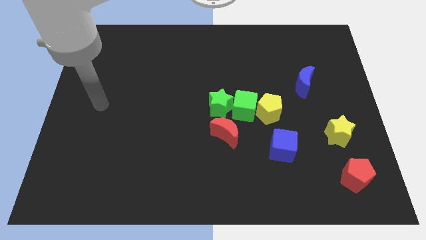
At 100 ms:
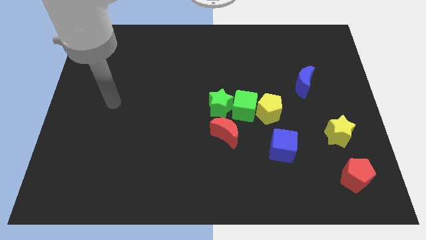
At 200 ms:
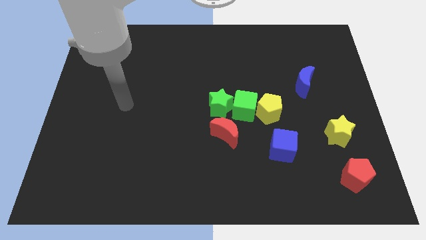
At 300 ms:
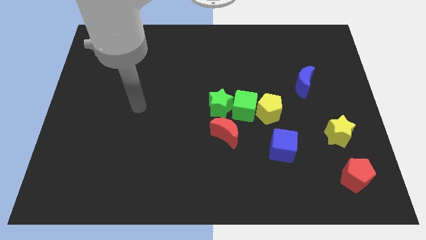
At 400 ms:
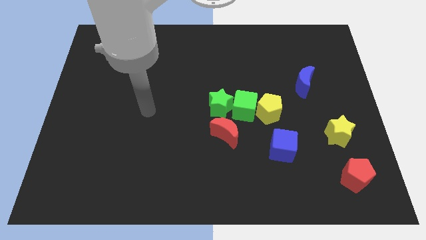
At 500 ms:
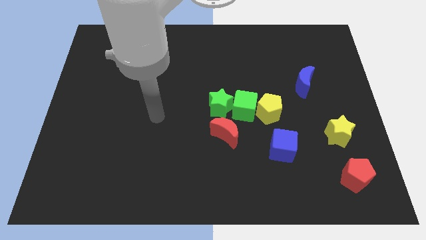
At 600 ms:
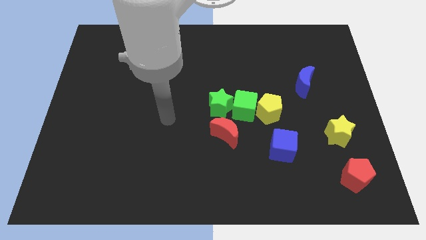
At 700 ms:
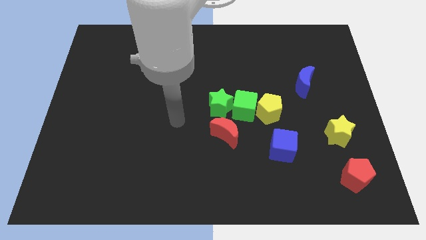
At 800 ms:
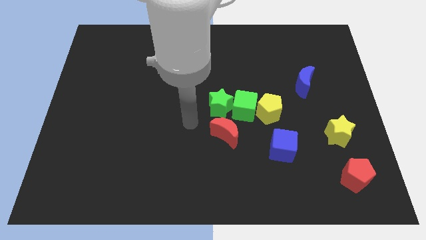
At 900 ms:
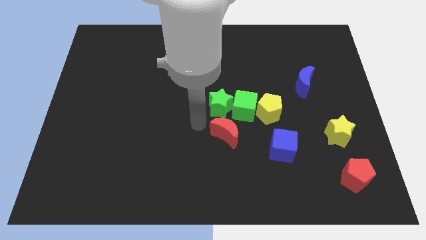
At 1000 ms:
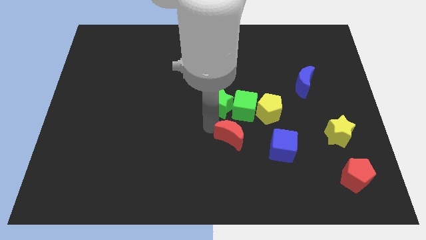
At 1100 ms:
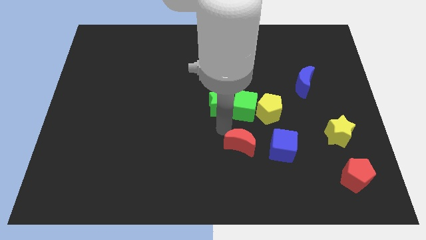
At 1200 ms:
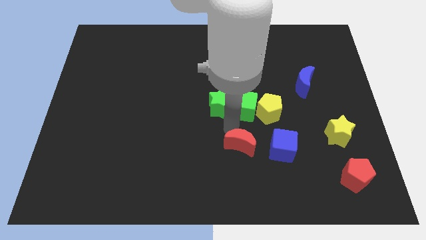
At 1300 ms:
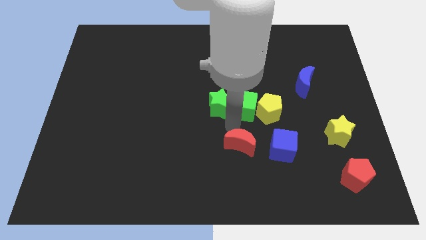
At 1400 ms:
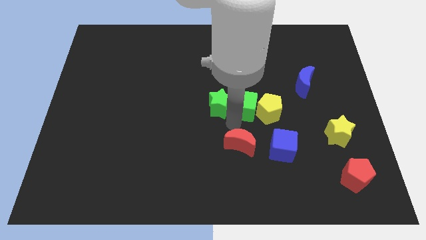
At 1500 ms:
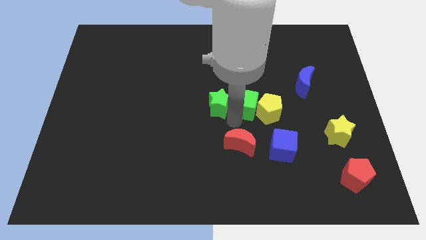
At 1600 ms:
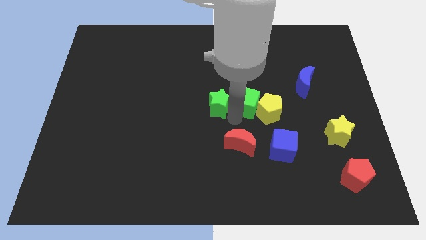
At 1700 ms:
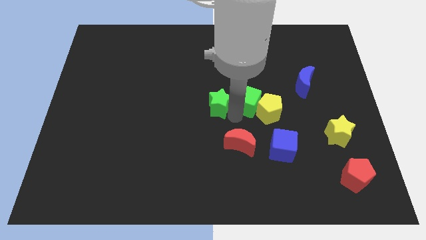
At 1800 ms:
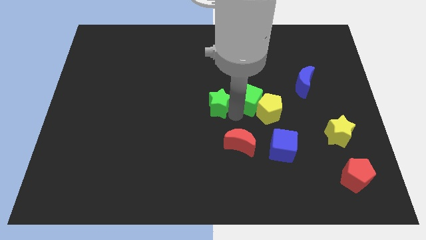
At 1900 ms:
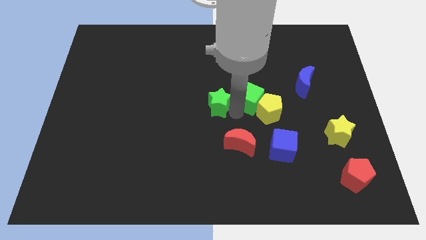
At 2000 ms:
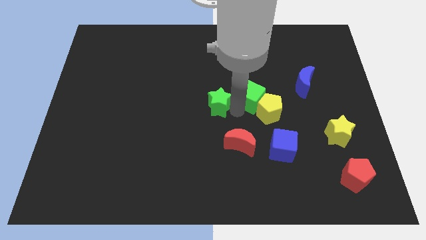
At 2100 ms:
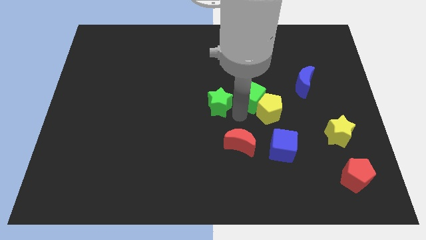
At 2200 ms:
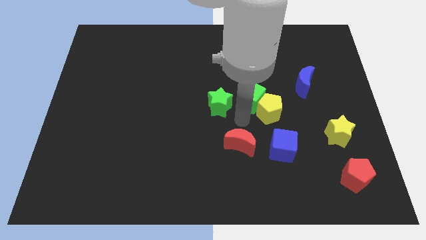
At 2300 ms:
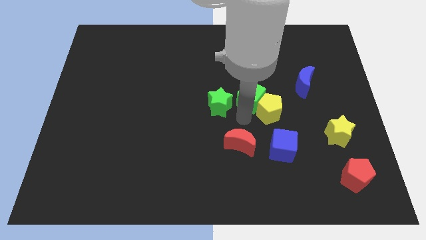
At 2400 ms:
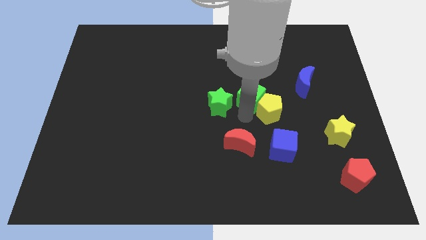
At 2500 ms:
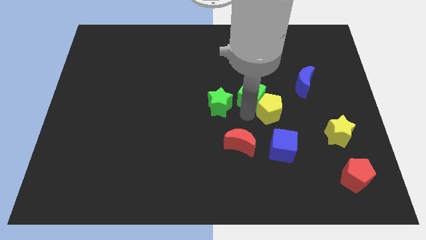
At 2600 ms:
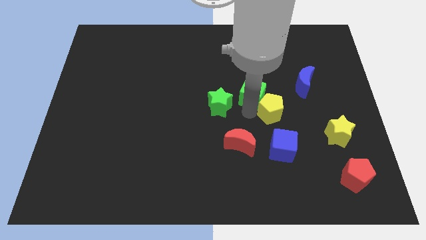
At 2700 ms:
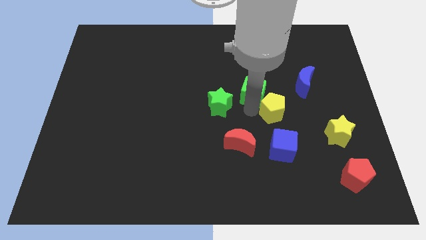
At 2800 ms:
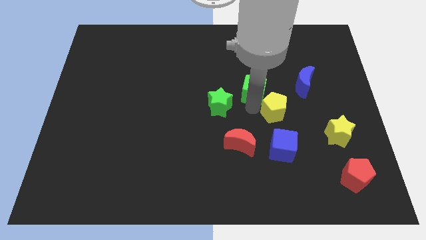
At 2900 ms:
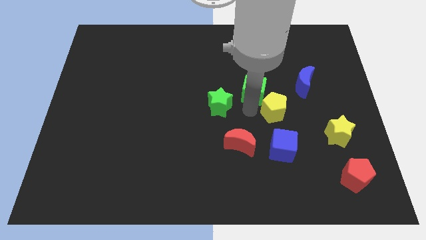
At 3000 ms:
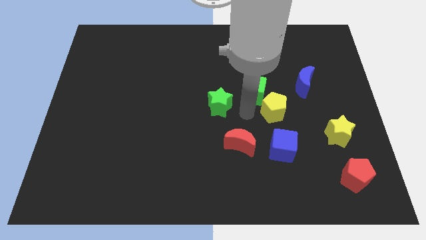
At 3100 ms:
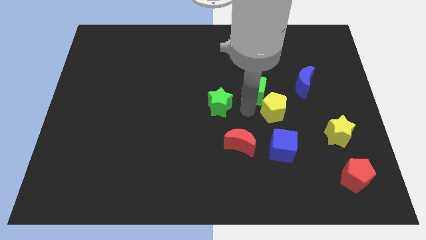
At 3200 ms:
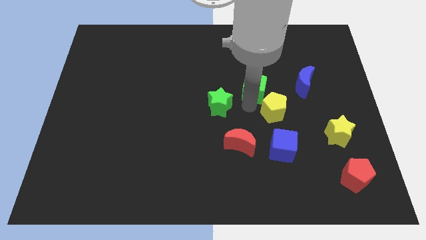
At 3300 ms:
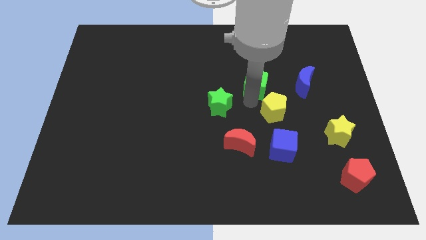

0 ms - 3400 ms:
move the green cube away from the group of blocks

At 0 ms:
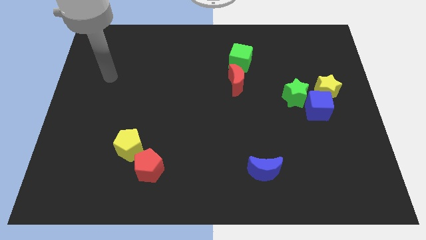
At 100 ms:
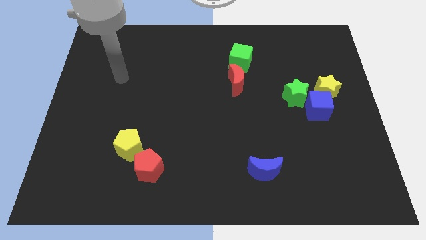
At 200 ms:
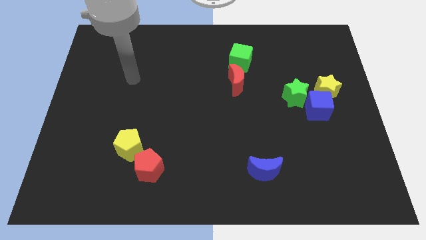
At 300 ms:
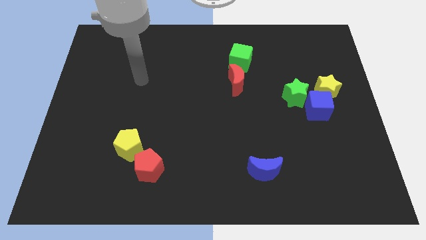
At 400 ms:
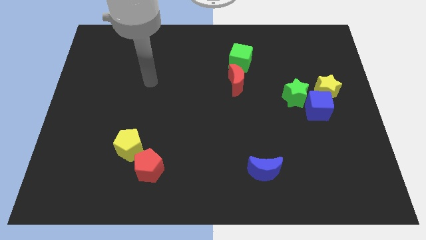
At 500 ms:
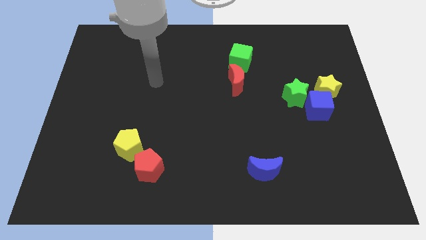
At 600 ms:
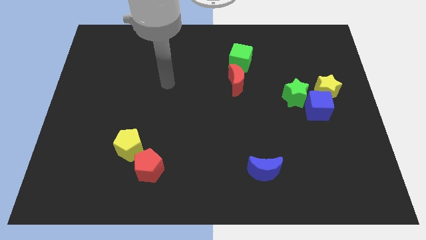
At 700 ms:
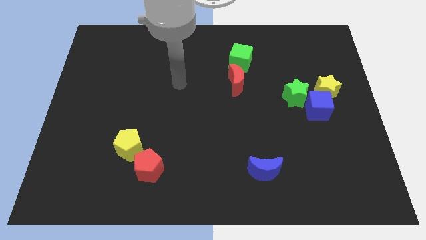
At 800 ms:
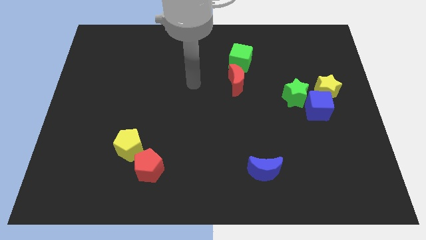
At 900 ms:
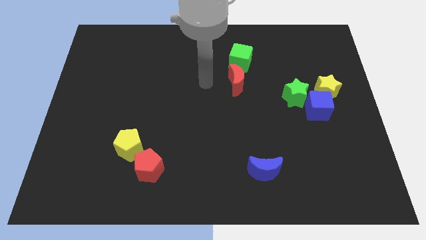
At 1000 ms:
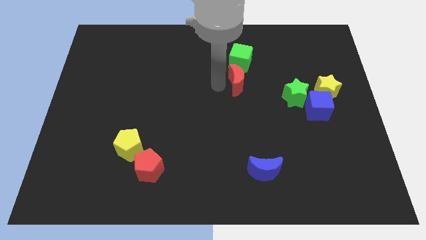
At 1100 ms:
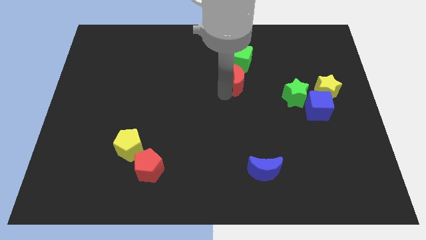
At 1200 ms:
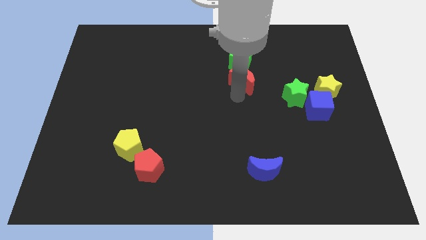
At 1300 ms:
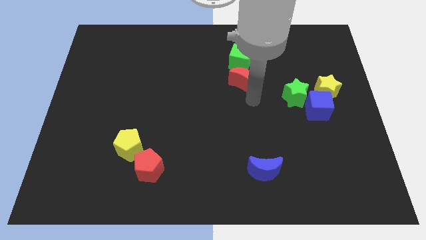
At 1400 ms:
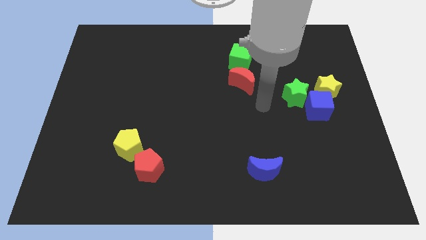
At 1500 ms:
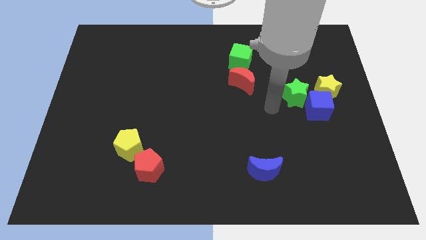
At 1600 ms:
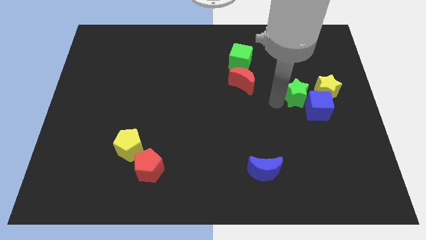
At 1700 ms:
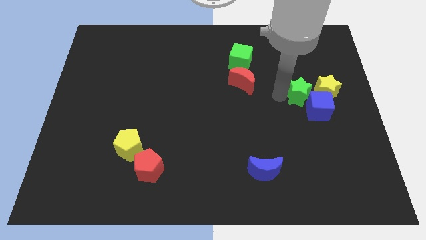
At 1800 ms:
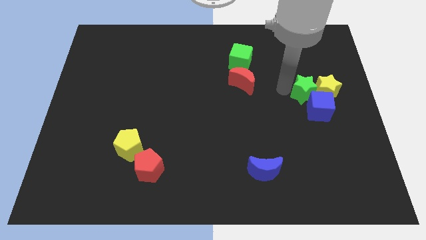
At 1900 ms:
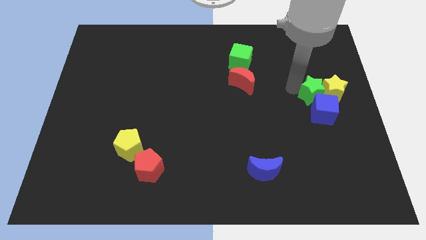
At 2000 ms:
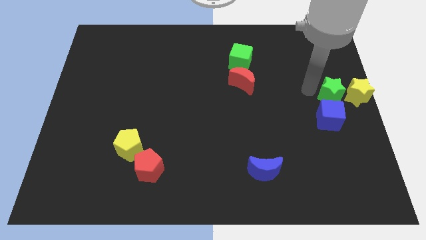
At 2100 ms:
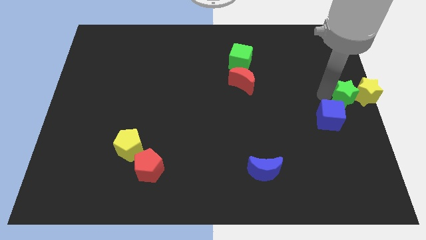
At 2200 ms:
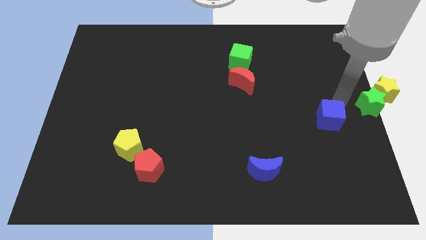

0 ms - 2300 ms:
pull the blue cube apart from the yellow star and green star

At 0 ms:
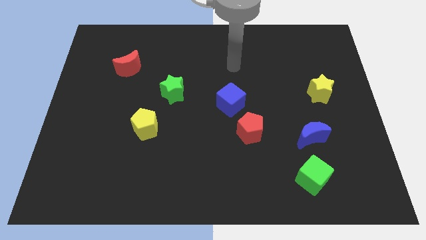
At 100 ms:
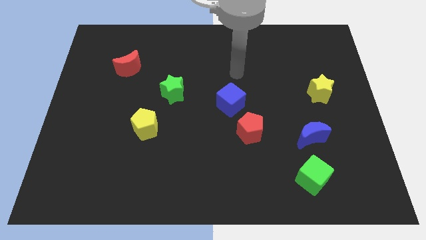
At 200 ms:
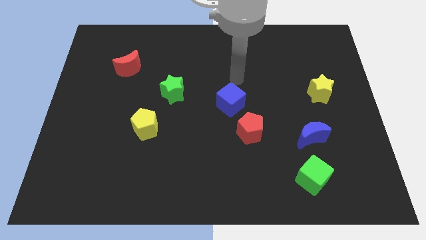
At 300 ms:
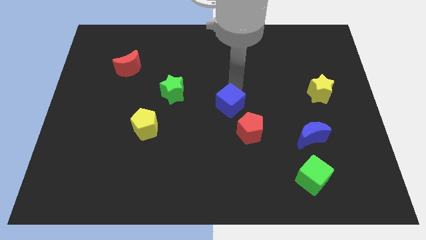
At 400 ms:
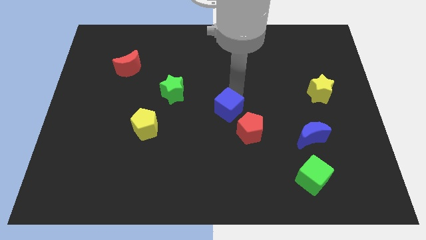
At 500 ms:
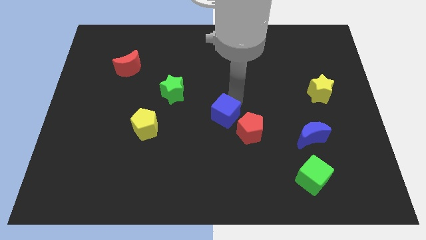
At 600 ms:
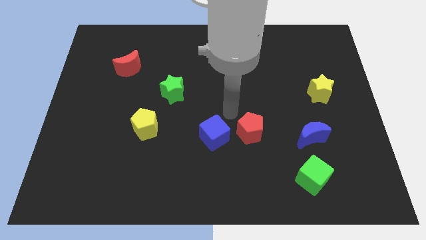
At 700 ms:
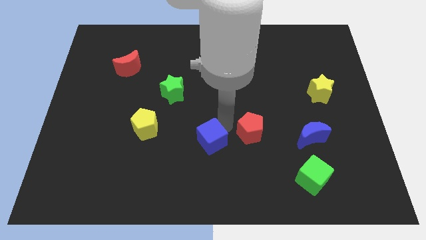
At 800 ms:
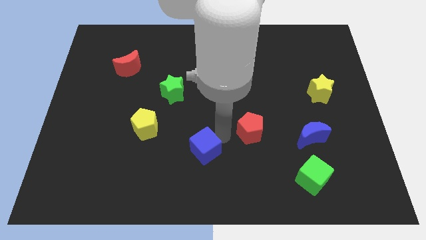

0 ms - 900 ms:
move the red pentagon away from the blue cube

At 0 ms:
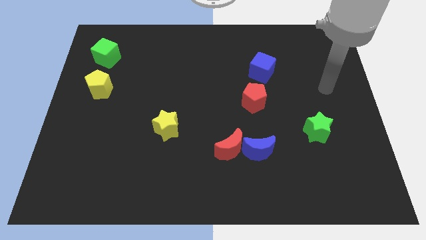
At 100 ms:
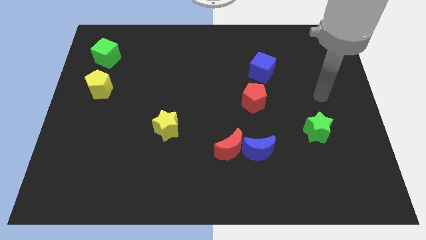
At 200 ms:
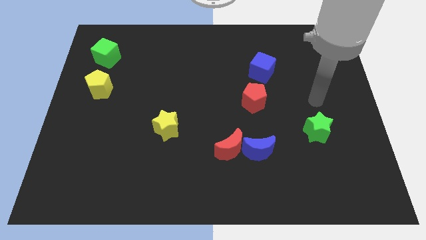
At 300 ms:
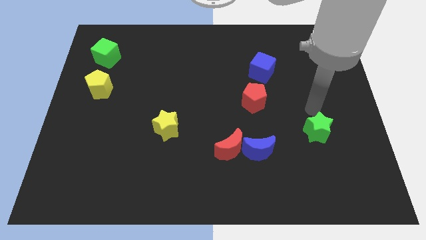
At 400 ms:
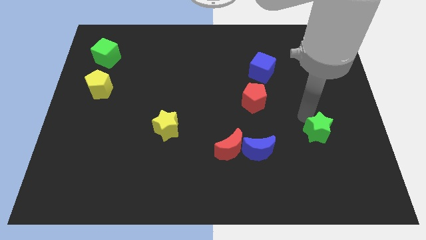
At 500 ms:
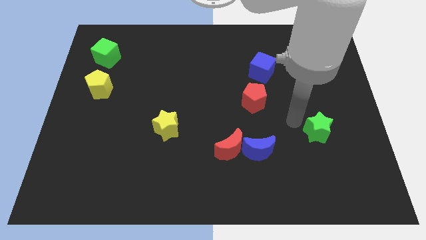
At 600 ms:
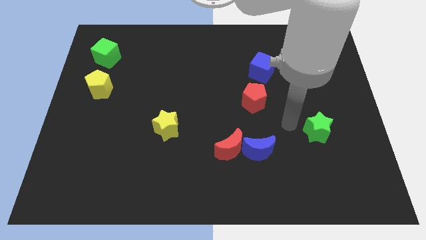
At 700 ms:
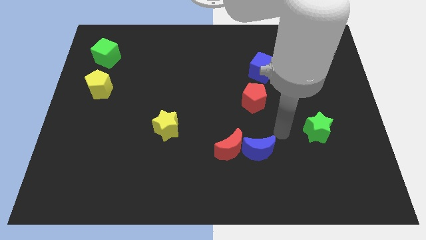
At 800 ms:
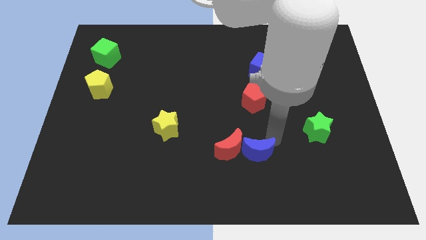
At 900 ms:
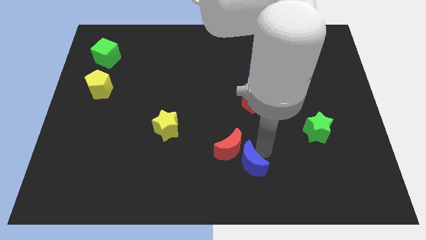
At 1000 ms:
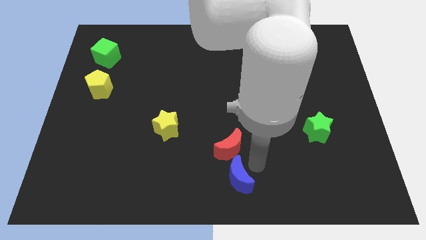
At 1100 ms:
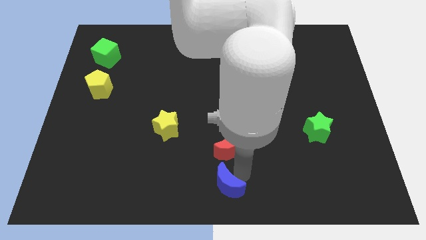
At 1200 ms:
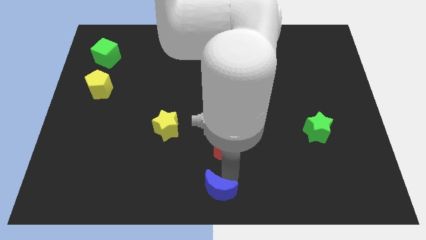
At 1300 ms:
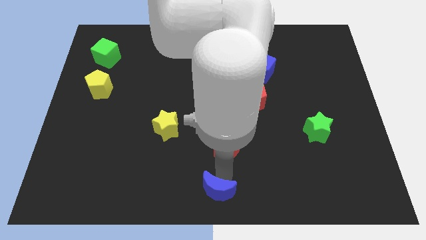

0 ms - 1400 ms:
pull the red moon apart from the blue moon

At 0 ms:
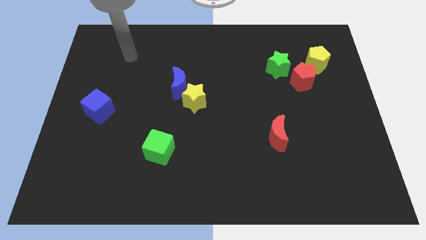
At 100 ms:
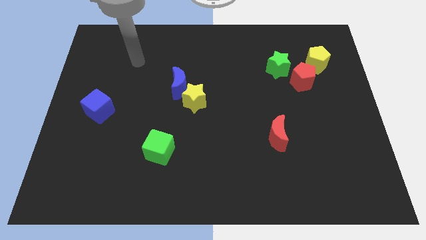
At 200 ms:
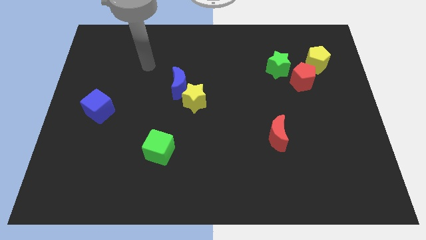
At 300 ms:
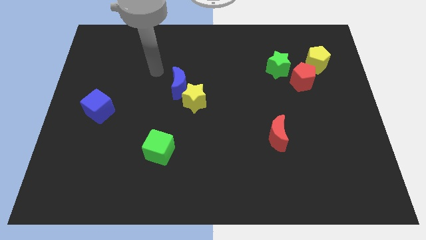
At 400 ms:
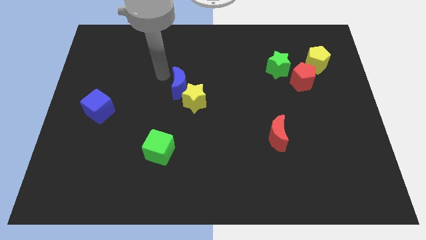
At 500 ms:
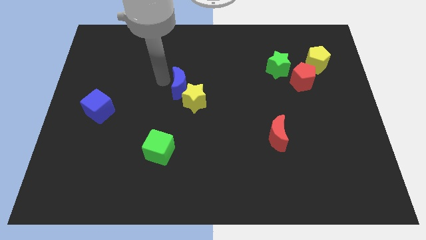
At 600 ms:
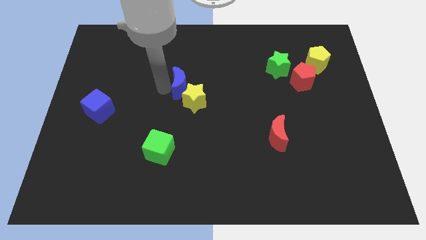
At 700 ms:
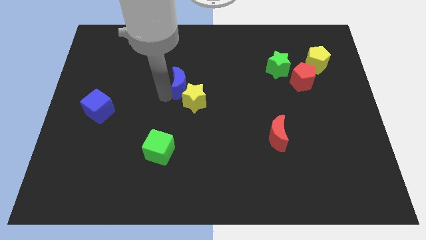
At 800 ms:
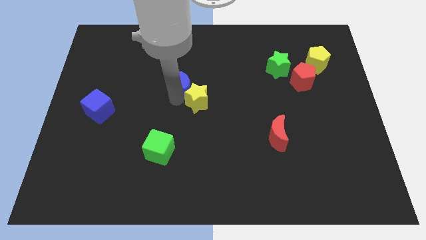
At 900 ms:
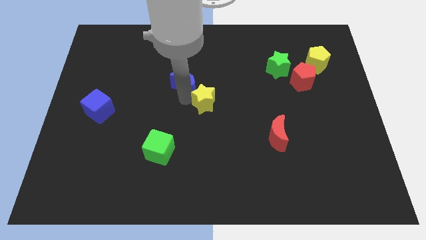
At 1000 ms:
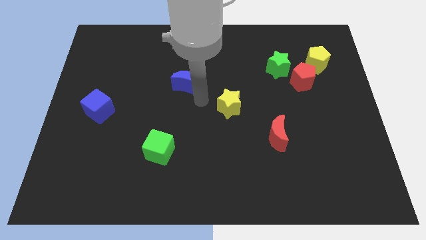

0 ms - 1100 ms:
pull the blue moon apart from the yellow star

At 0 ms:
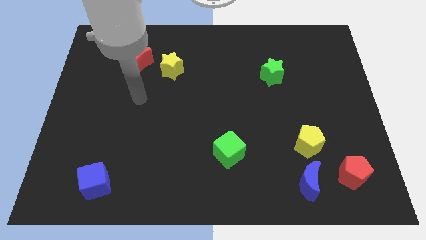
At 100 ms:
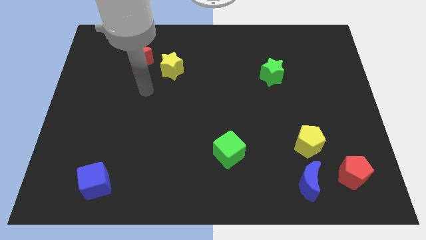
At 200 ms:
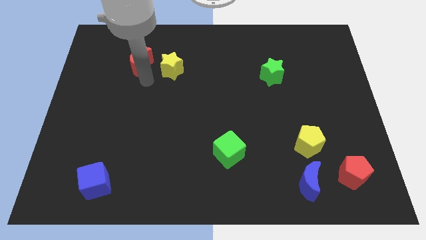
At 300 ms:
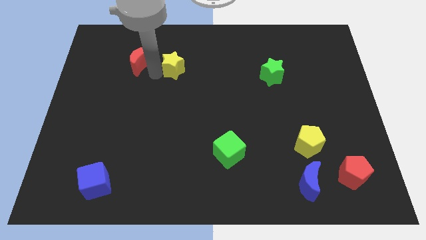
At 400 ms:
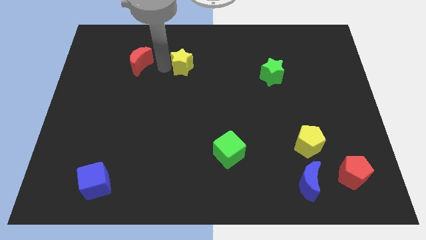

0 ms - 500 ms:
move the red moon away from the yellow star
